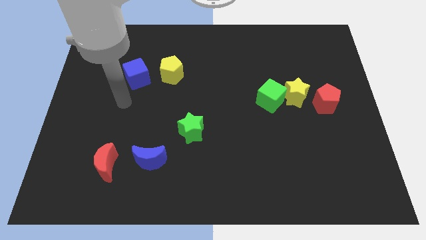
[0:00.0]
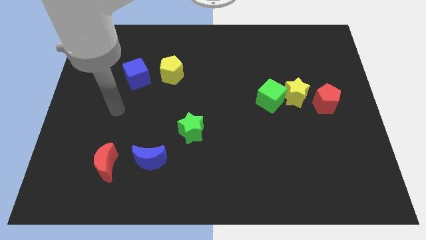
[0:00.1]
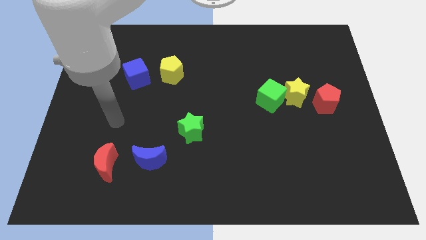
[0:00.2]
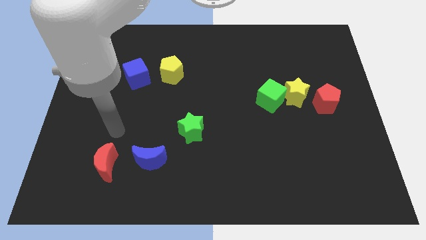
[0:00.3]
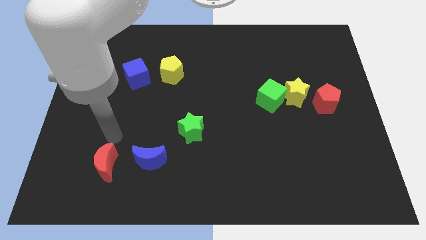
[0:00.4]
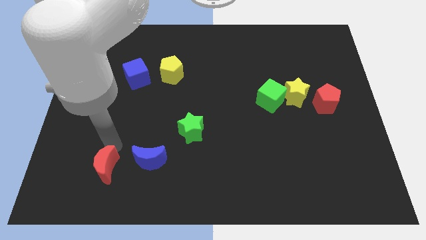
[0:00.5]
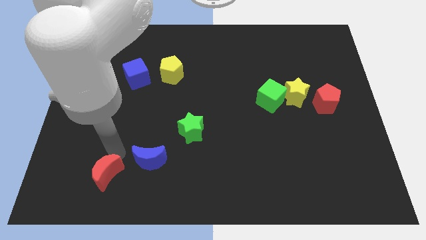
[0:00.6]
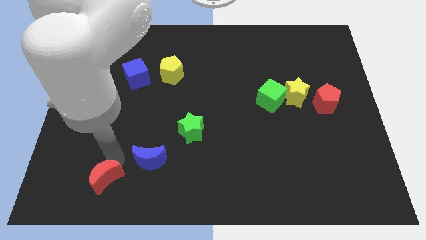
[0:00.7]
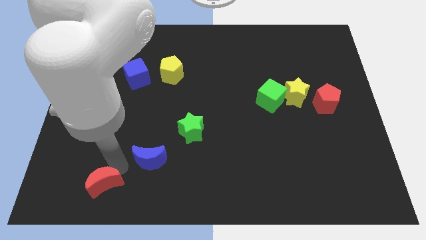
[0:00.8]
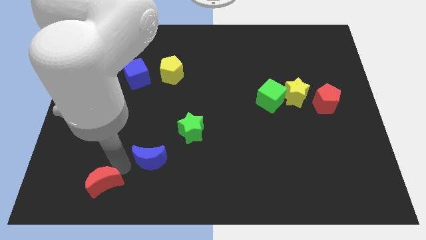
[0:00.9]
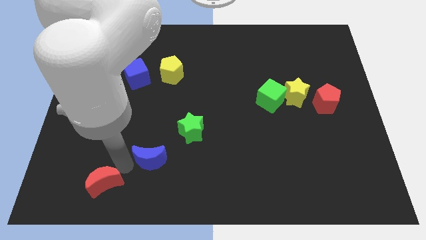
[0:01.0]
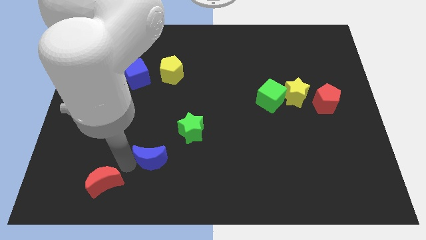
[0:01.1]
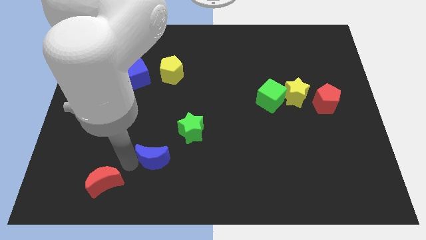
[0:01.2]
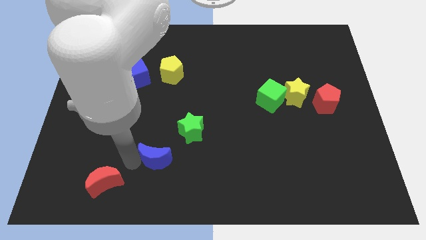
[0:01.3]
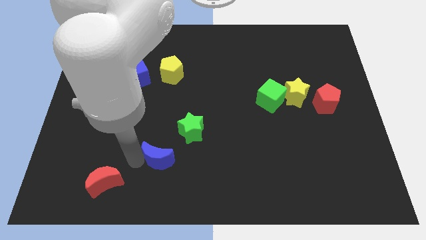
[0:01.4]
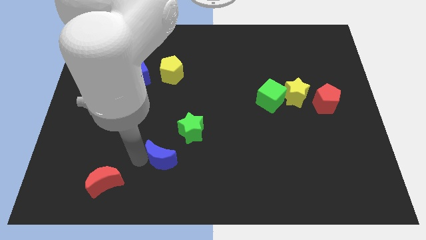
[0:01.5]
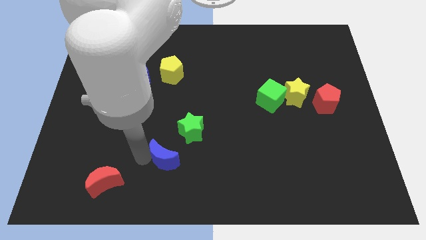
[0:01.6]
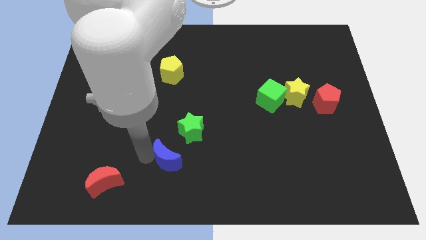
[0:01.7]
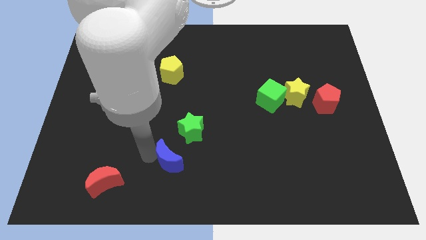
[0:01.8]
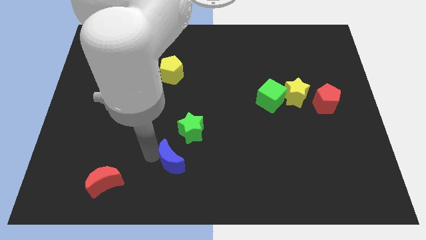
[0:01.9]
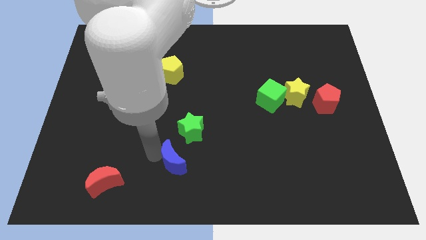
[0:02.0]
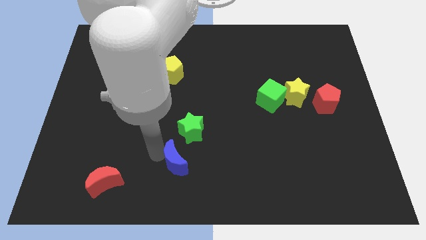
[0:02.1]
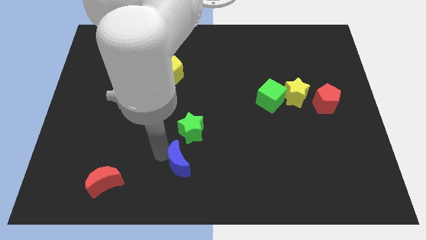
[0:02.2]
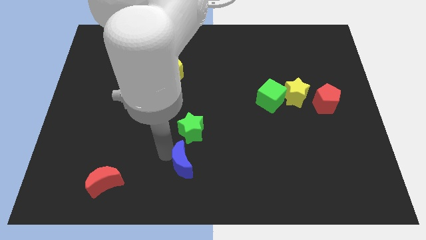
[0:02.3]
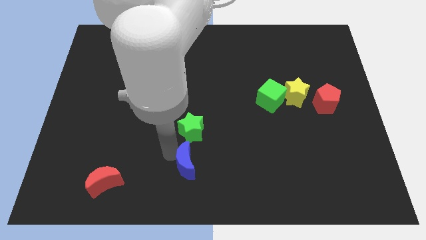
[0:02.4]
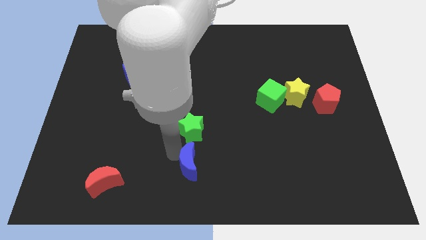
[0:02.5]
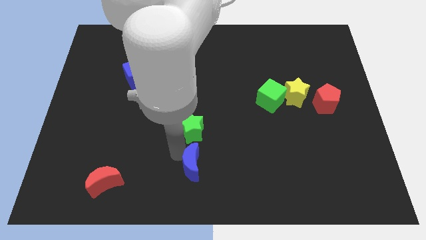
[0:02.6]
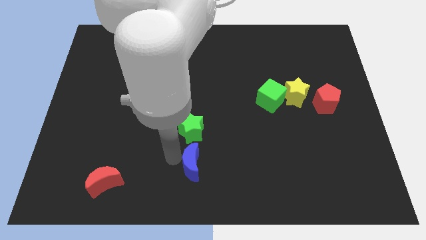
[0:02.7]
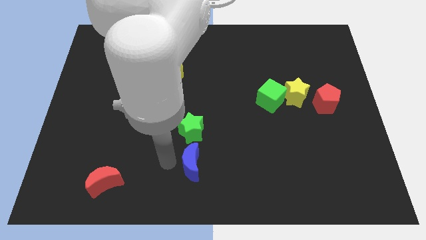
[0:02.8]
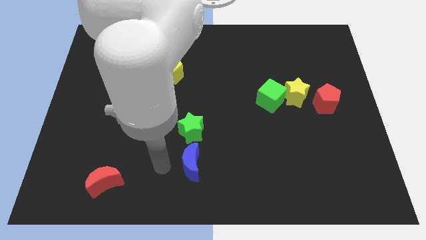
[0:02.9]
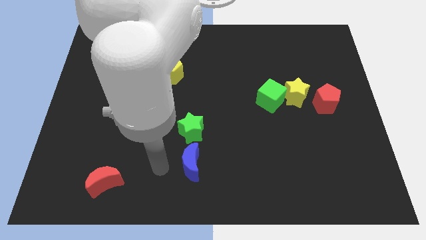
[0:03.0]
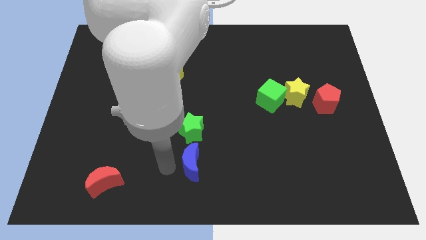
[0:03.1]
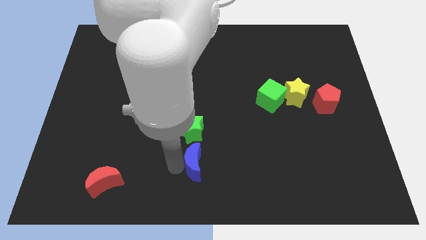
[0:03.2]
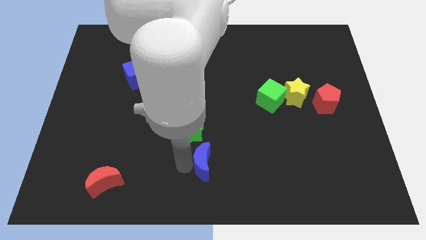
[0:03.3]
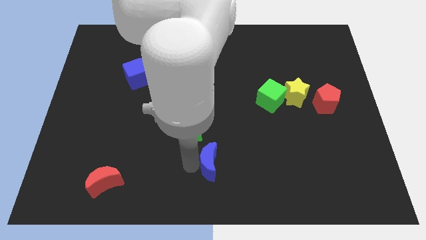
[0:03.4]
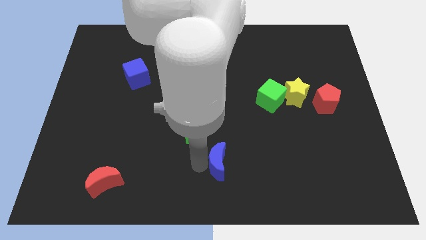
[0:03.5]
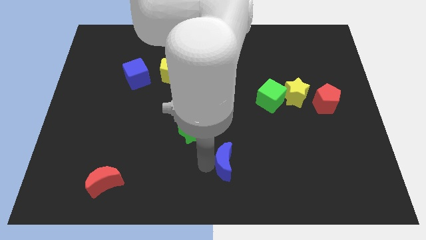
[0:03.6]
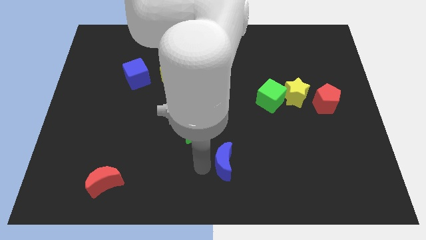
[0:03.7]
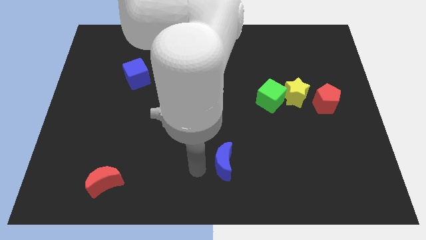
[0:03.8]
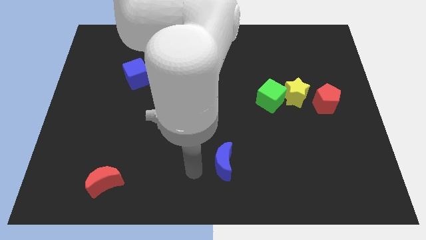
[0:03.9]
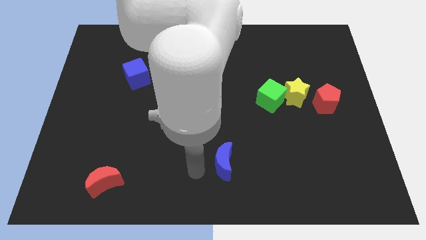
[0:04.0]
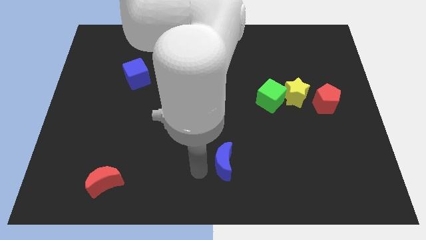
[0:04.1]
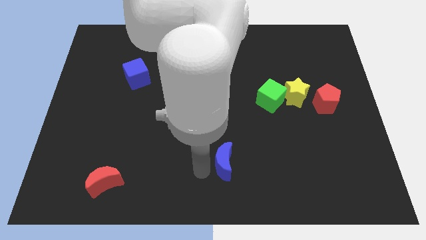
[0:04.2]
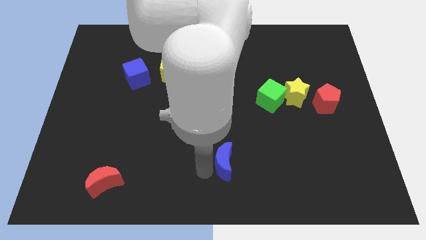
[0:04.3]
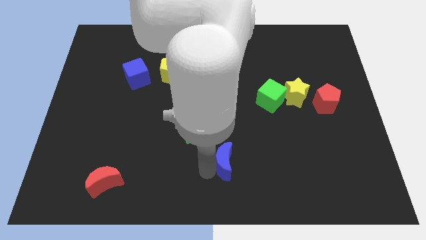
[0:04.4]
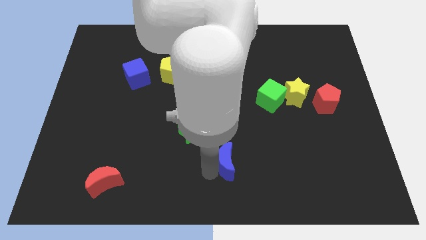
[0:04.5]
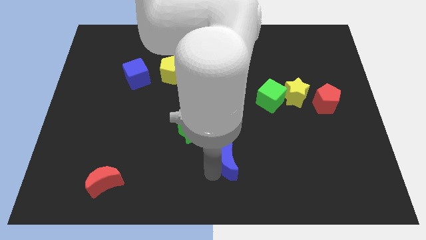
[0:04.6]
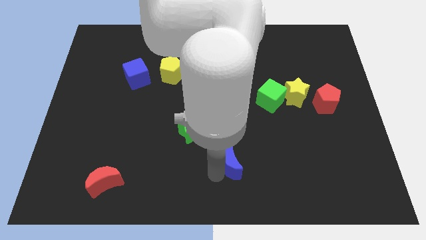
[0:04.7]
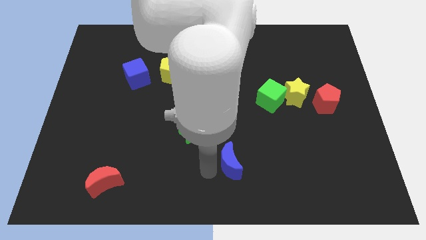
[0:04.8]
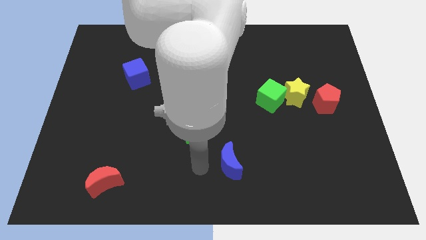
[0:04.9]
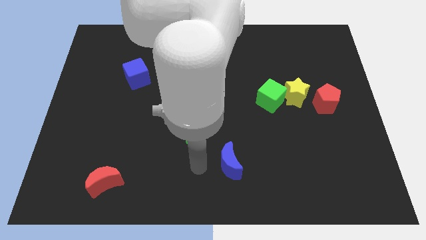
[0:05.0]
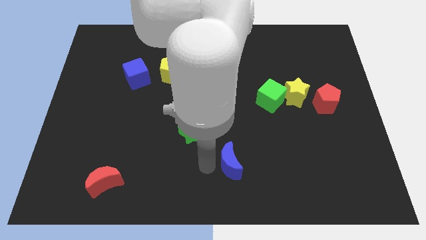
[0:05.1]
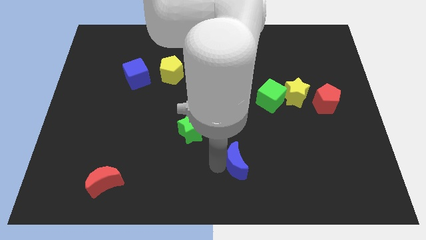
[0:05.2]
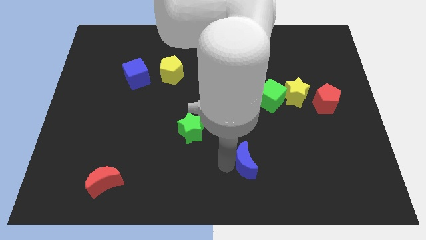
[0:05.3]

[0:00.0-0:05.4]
slide the blue moon to the right

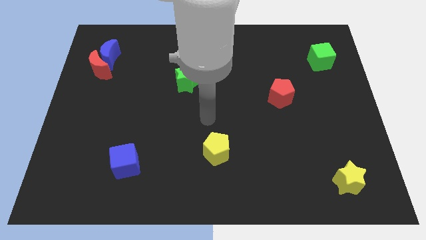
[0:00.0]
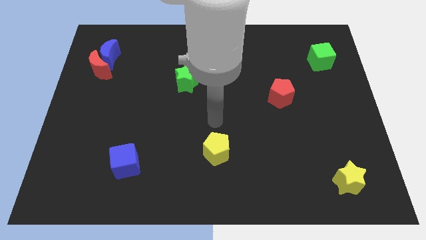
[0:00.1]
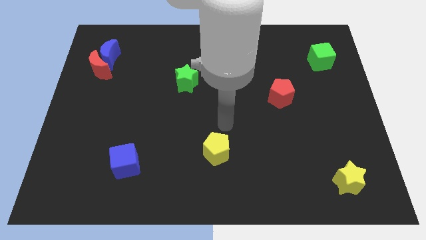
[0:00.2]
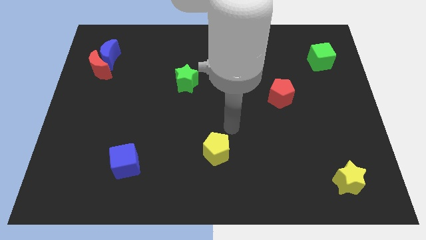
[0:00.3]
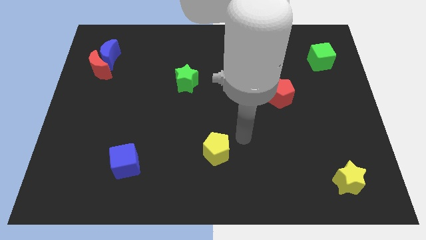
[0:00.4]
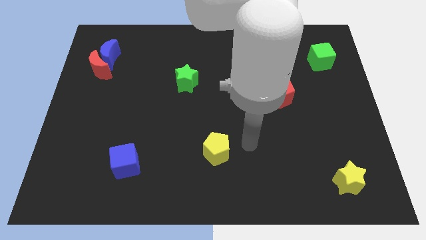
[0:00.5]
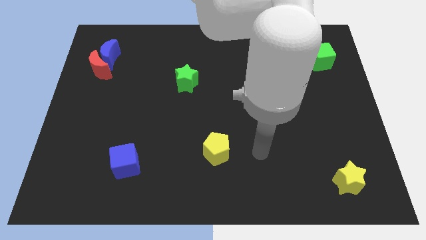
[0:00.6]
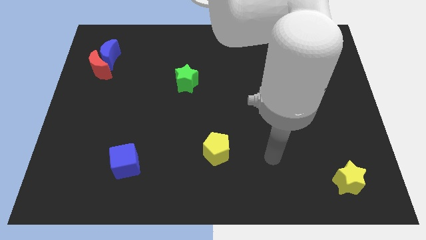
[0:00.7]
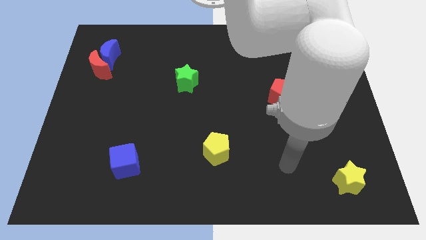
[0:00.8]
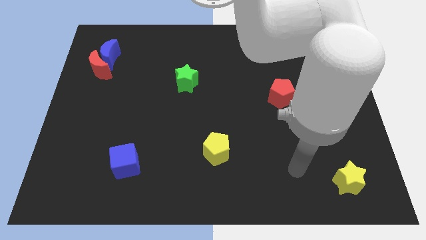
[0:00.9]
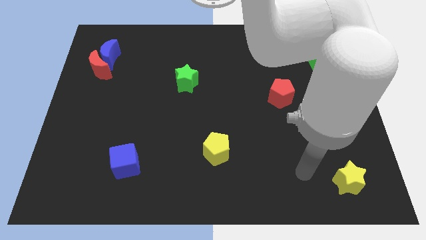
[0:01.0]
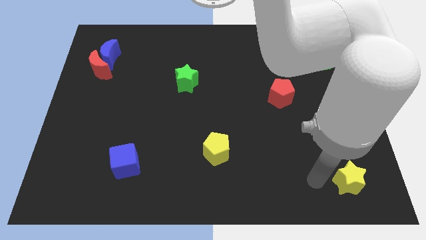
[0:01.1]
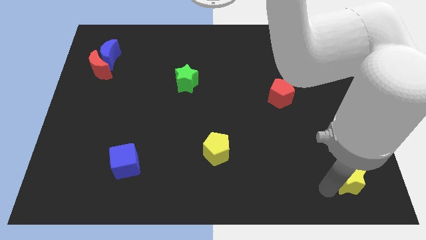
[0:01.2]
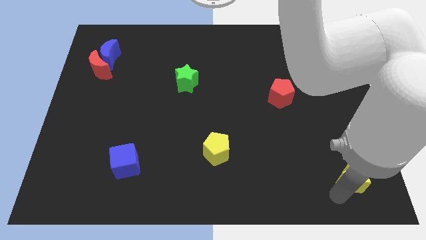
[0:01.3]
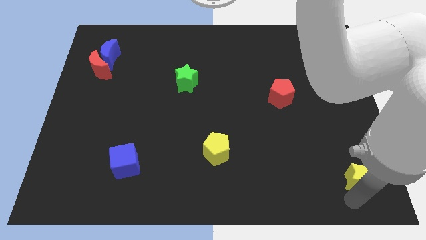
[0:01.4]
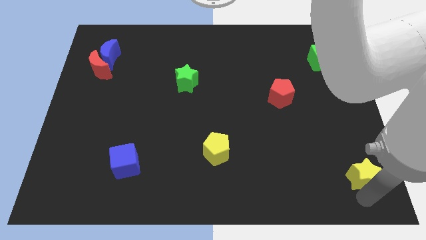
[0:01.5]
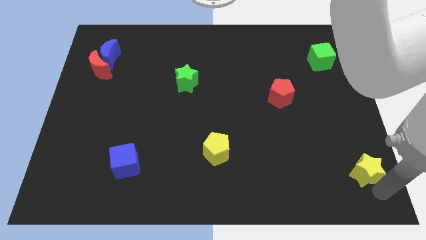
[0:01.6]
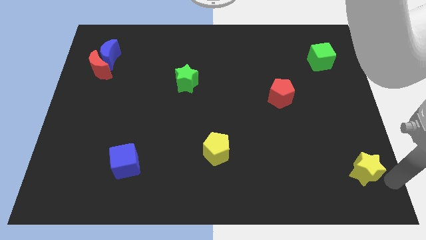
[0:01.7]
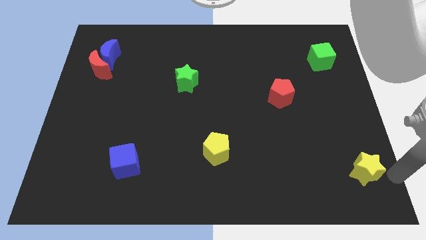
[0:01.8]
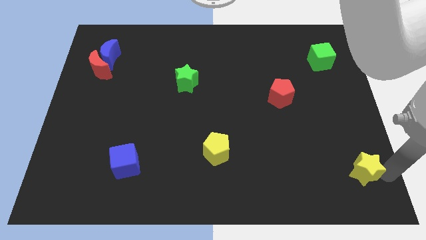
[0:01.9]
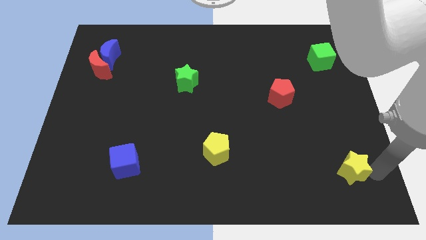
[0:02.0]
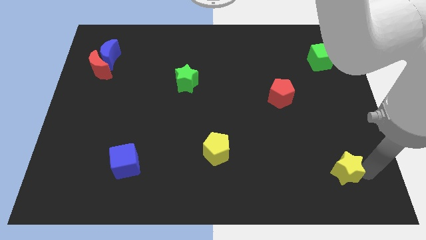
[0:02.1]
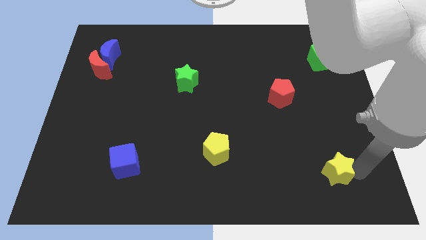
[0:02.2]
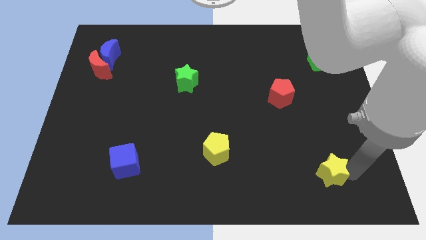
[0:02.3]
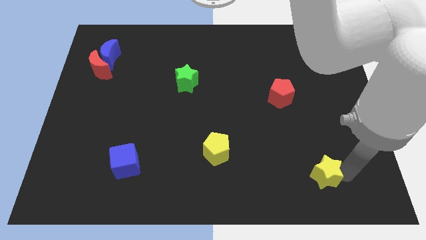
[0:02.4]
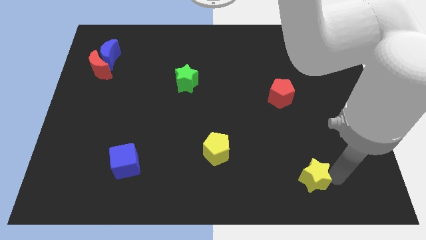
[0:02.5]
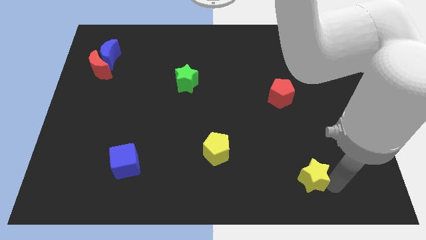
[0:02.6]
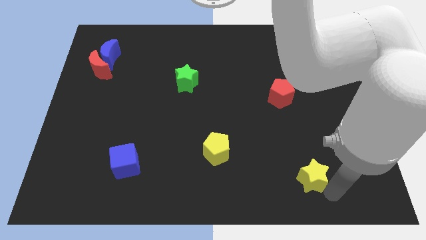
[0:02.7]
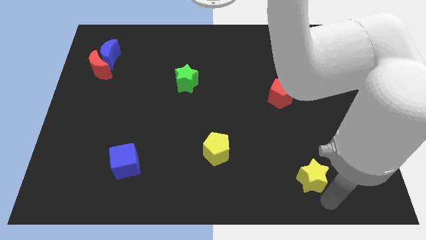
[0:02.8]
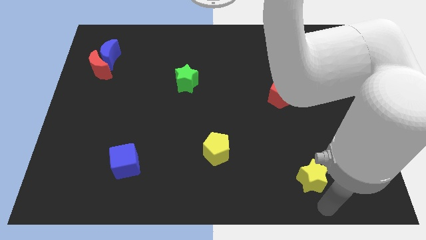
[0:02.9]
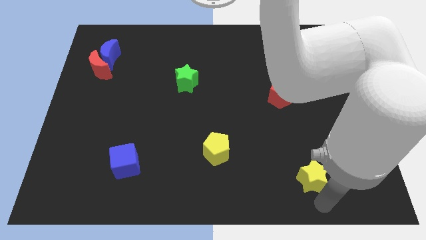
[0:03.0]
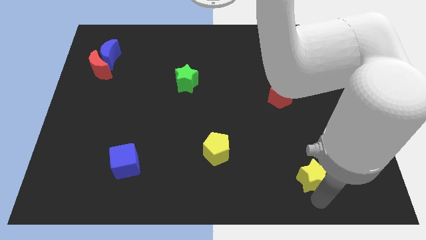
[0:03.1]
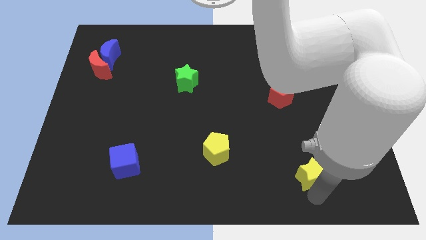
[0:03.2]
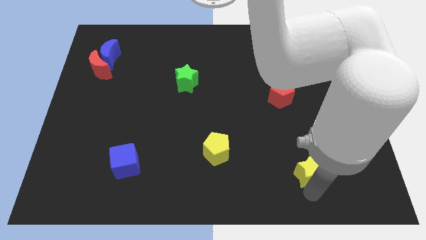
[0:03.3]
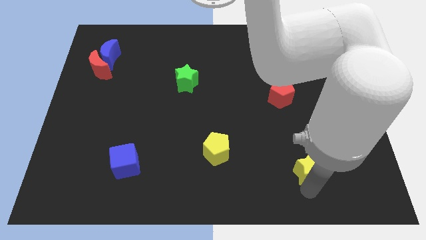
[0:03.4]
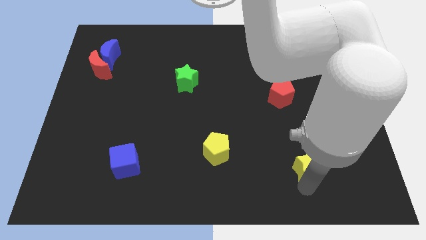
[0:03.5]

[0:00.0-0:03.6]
push the yellow star somewhat upwards and to the left diagonally
